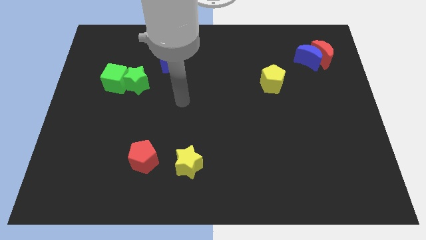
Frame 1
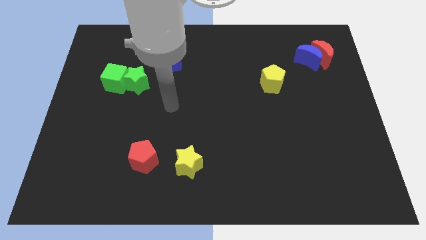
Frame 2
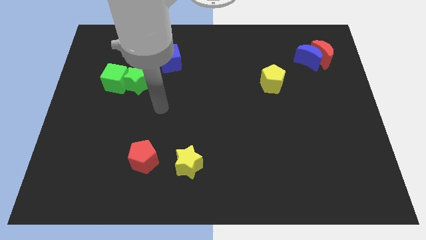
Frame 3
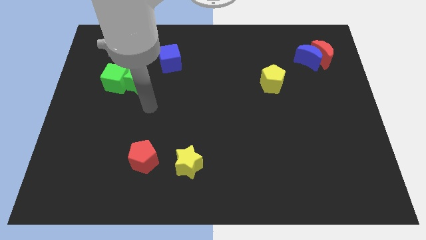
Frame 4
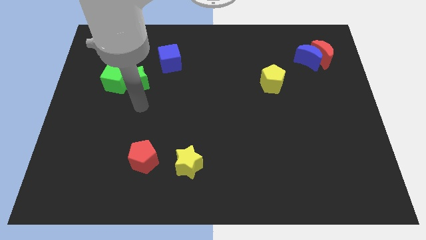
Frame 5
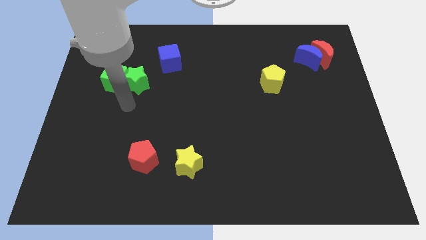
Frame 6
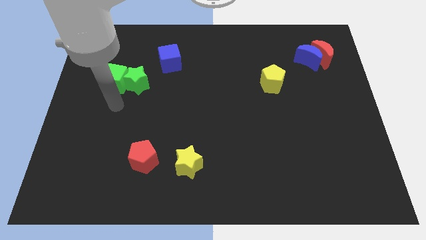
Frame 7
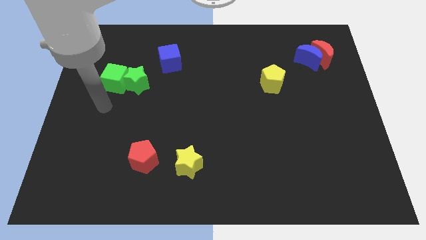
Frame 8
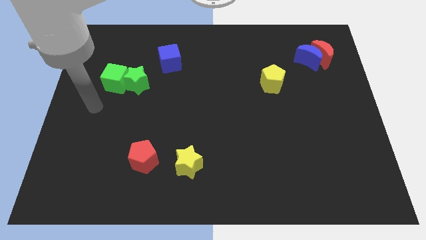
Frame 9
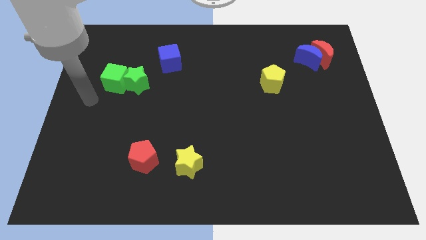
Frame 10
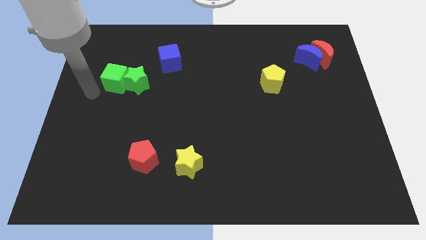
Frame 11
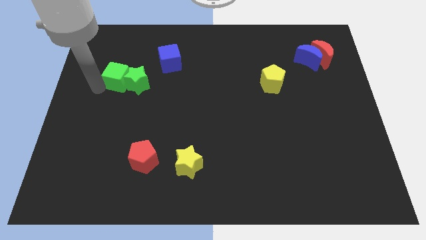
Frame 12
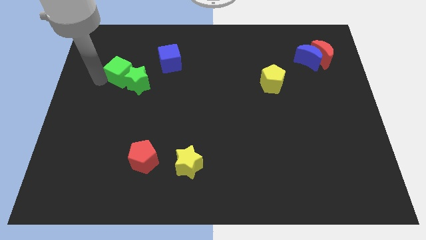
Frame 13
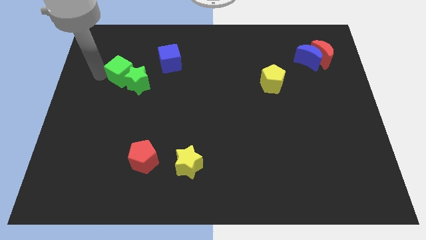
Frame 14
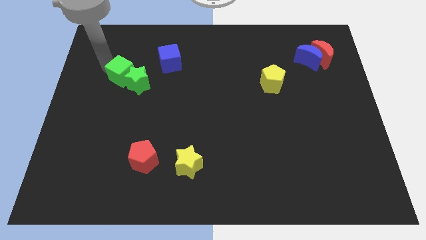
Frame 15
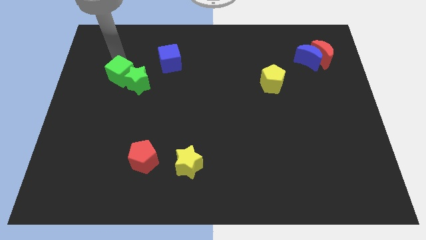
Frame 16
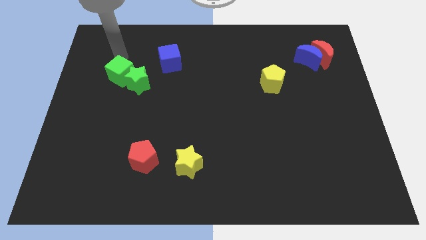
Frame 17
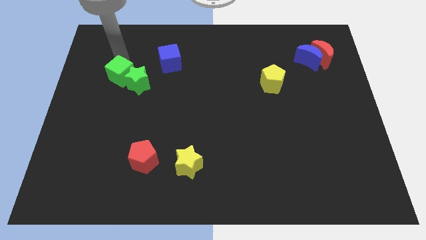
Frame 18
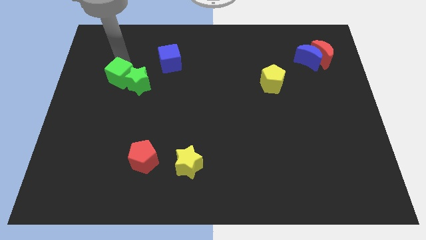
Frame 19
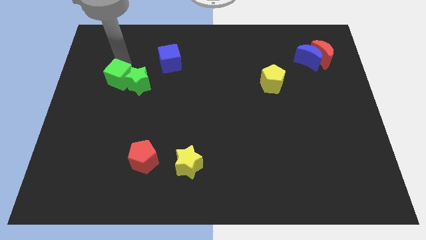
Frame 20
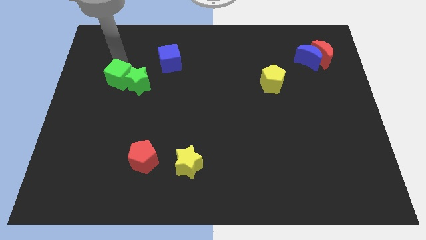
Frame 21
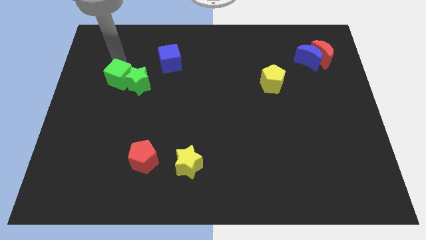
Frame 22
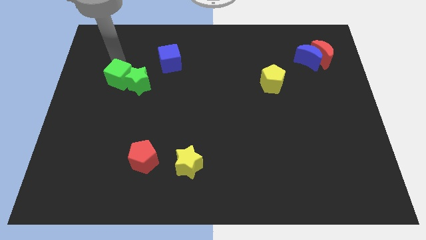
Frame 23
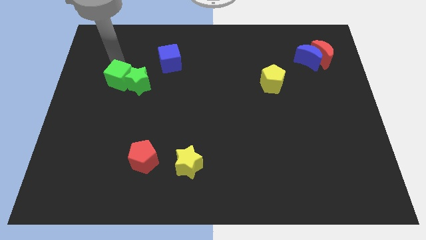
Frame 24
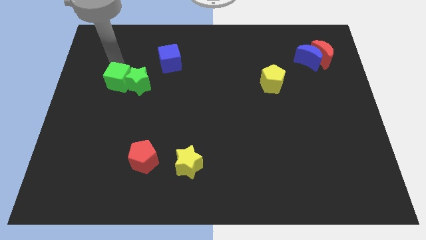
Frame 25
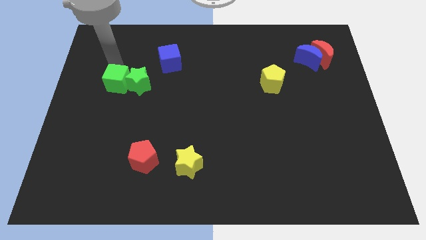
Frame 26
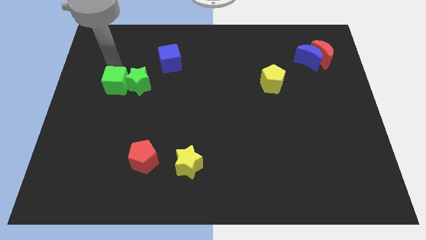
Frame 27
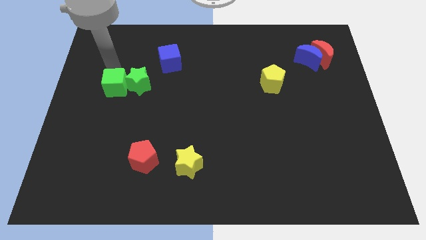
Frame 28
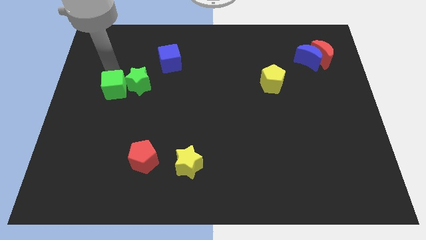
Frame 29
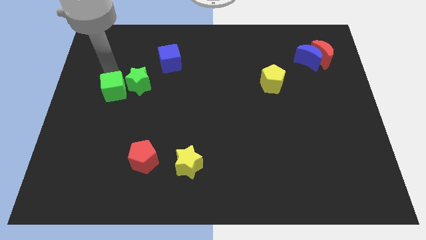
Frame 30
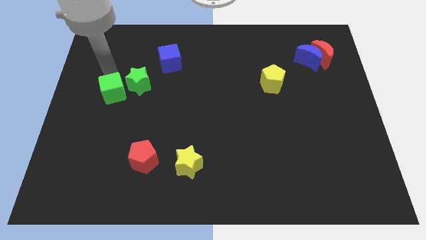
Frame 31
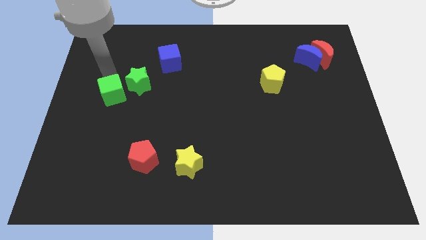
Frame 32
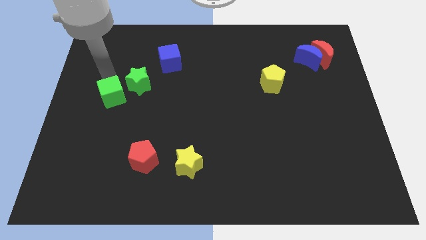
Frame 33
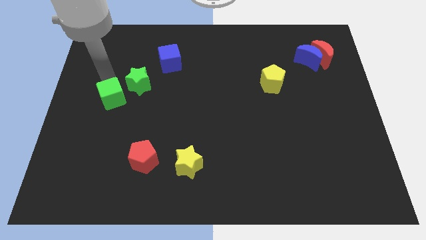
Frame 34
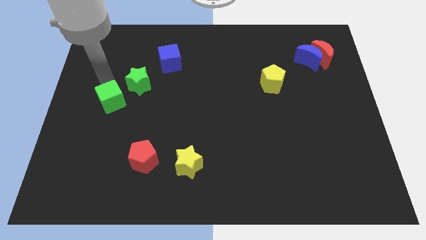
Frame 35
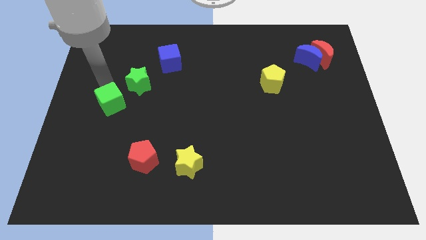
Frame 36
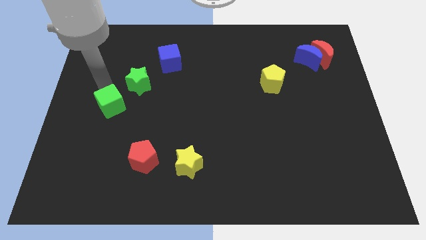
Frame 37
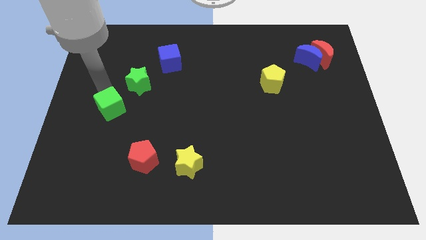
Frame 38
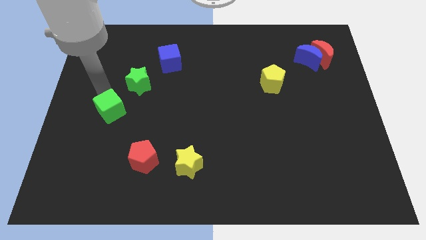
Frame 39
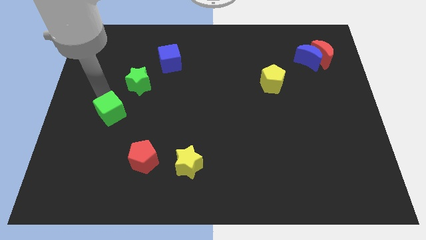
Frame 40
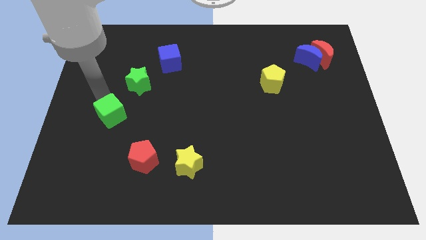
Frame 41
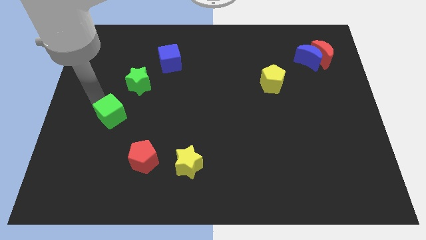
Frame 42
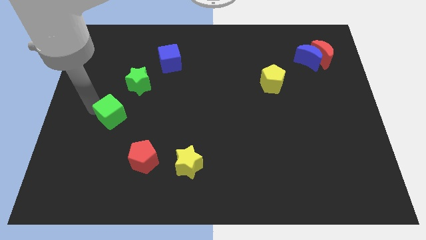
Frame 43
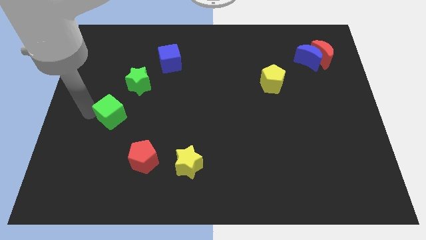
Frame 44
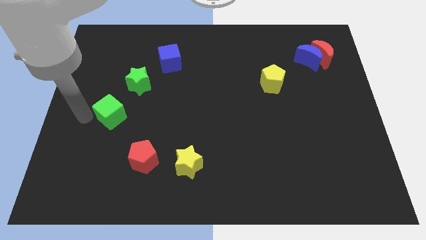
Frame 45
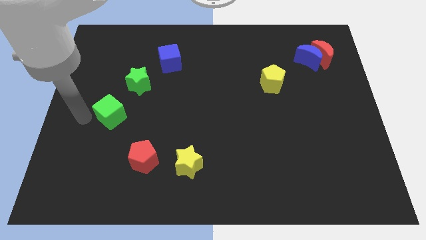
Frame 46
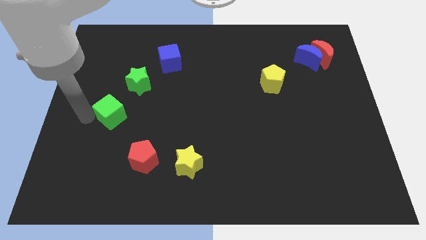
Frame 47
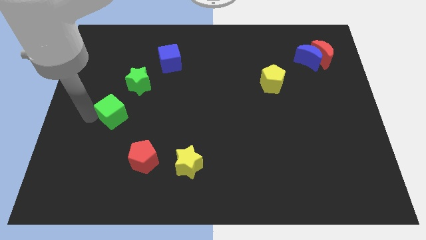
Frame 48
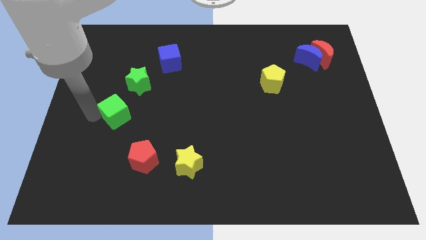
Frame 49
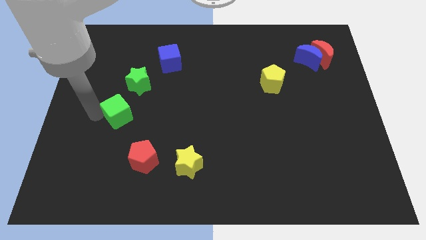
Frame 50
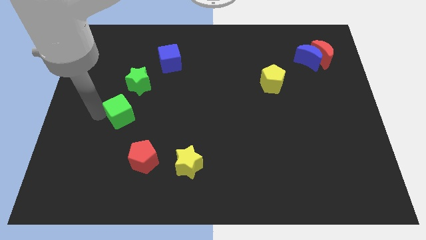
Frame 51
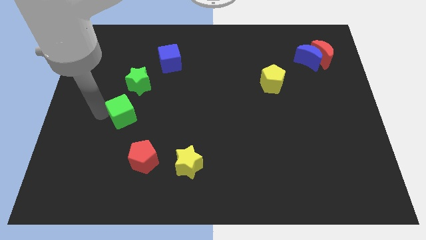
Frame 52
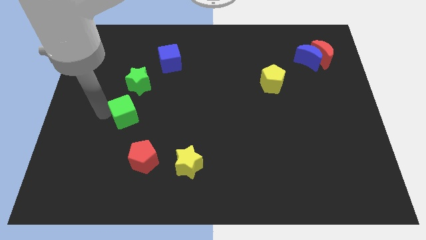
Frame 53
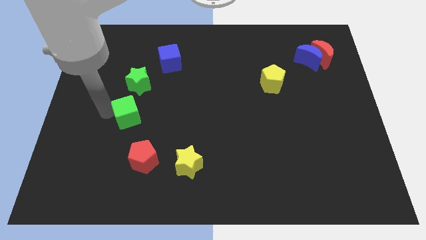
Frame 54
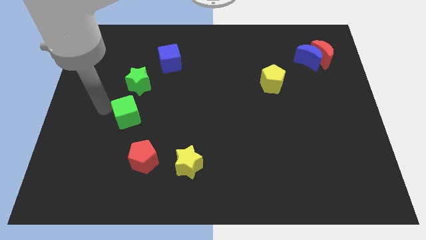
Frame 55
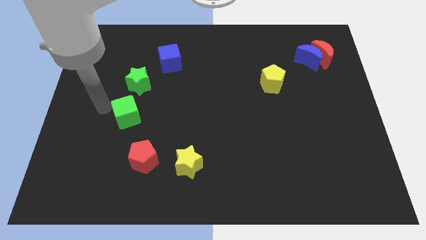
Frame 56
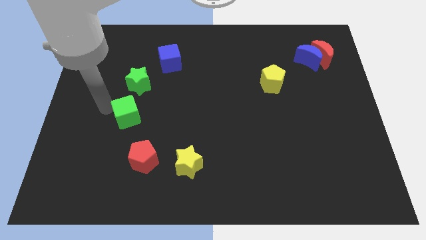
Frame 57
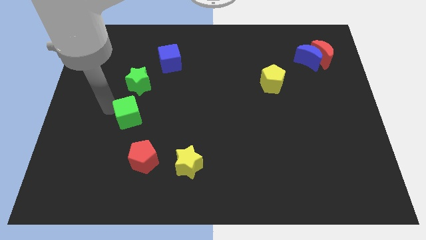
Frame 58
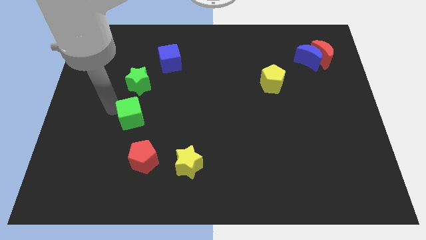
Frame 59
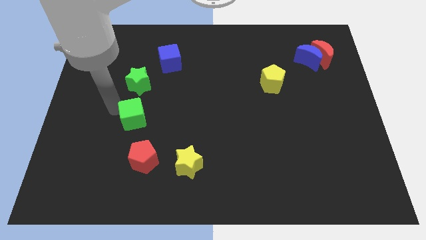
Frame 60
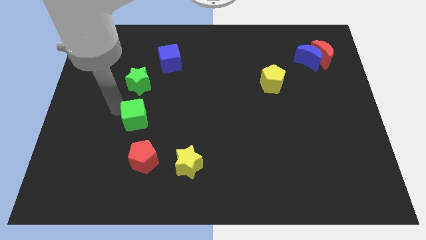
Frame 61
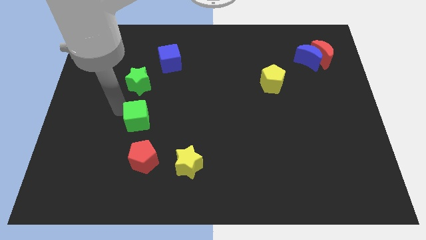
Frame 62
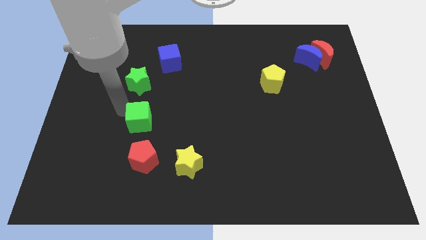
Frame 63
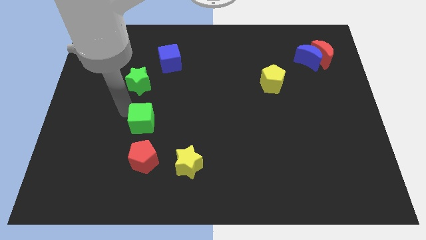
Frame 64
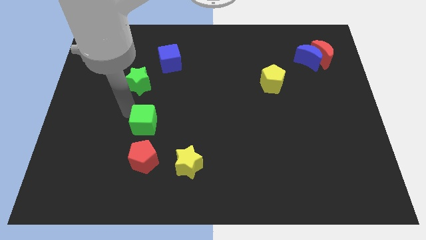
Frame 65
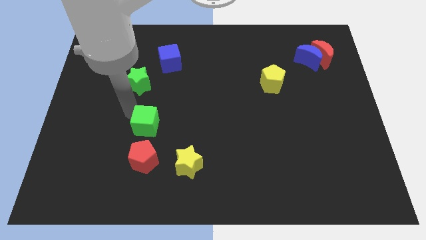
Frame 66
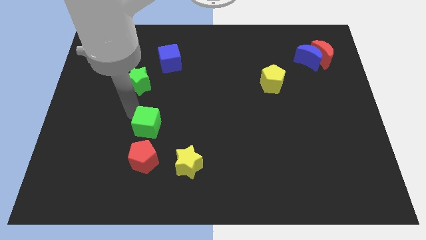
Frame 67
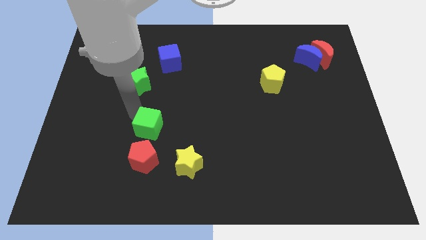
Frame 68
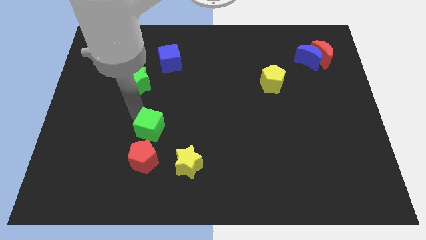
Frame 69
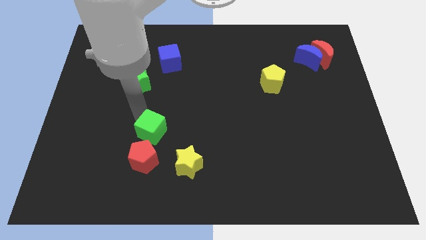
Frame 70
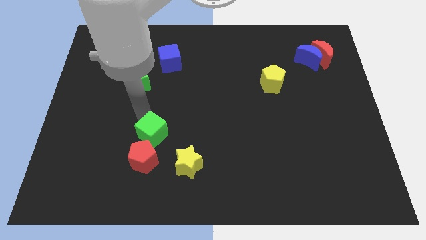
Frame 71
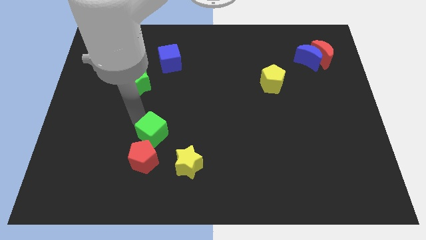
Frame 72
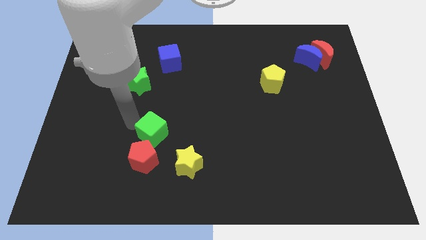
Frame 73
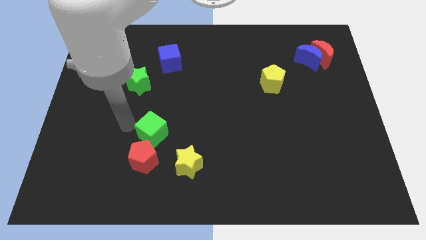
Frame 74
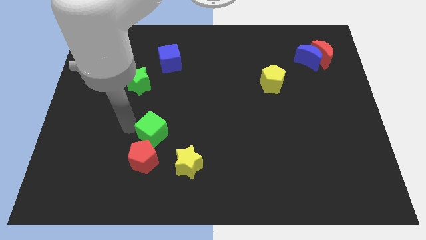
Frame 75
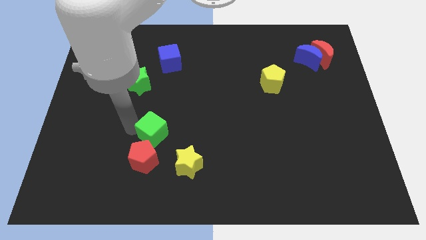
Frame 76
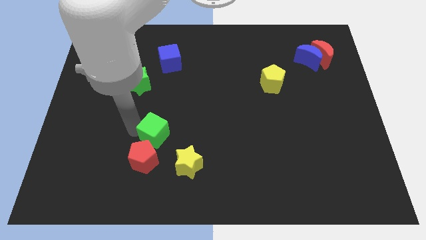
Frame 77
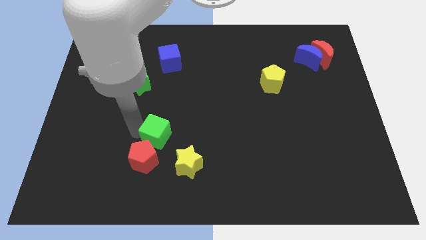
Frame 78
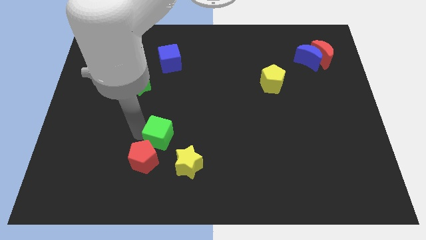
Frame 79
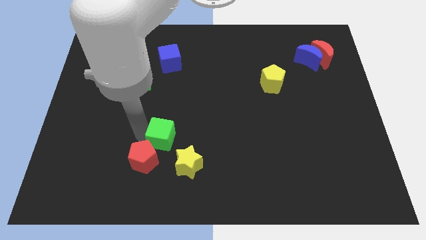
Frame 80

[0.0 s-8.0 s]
move the green cube downwards and right
